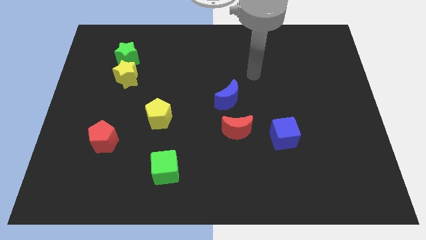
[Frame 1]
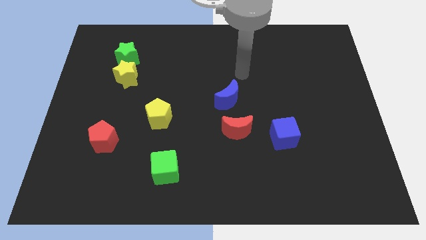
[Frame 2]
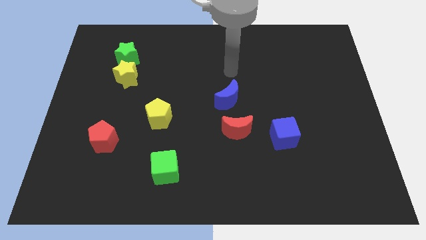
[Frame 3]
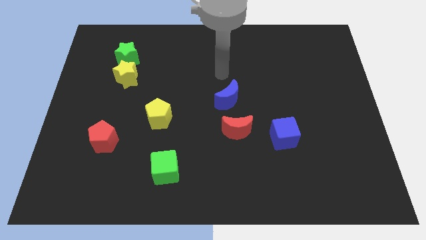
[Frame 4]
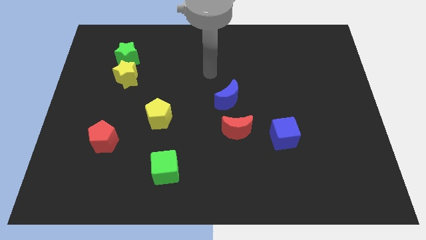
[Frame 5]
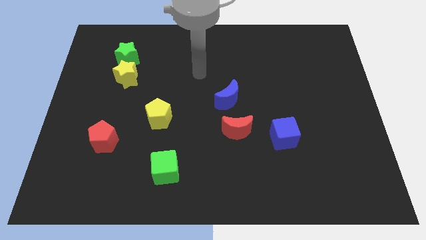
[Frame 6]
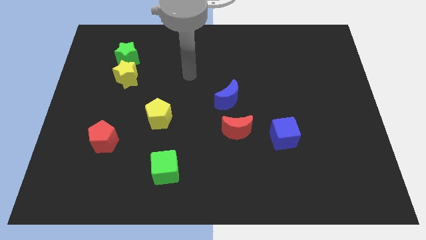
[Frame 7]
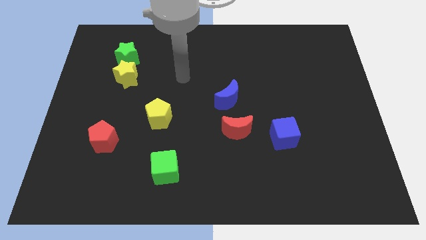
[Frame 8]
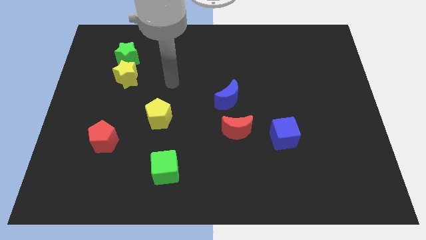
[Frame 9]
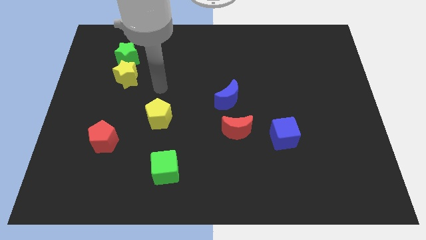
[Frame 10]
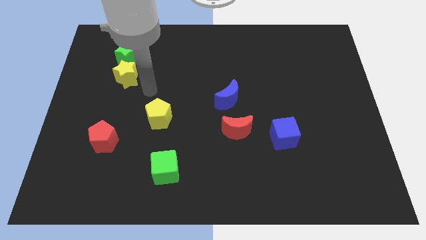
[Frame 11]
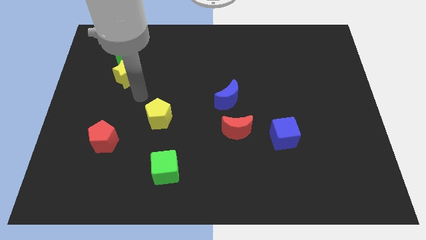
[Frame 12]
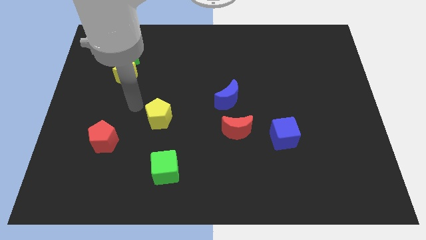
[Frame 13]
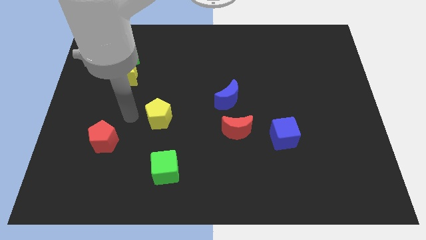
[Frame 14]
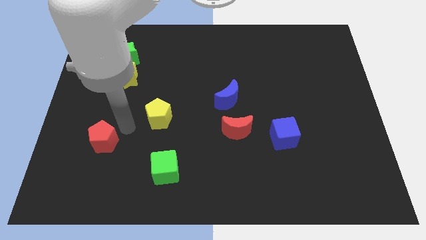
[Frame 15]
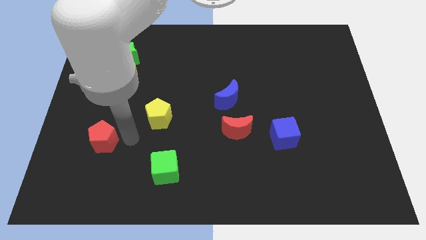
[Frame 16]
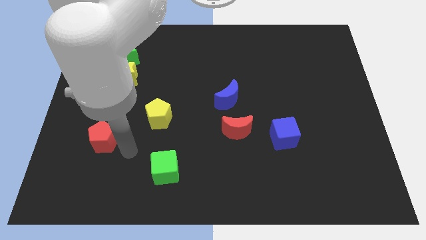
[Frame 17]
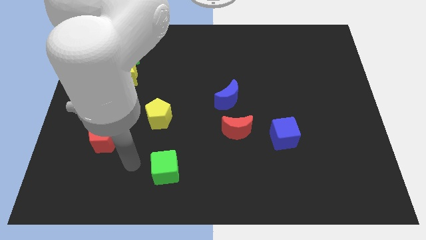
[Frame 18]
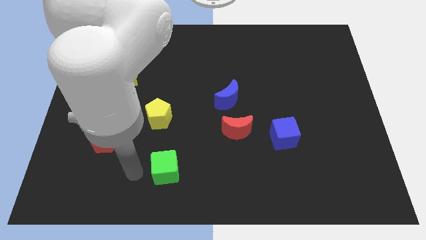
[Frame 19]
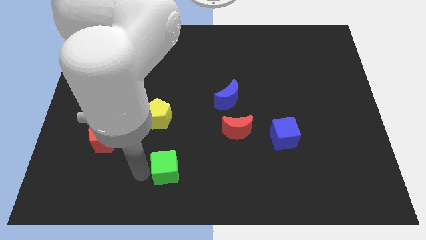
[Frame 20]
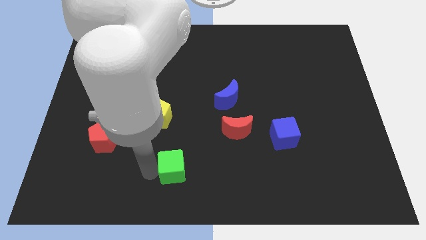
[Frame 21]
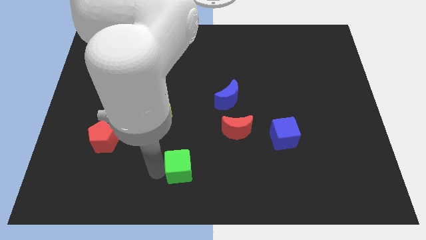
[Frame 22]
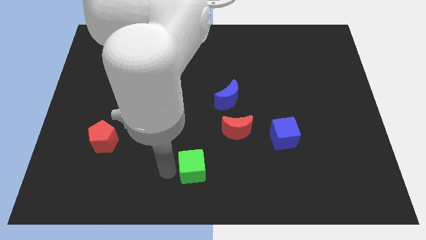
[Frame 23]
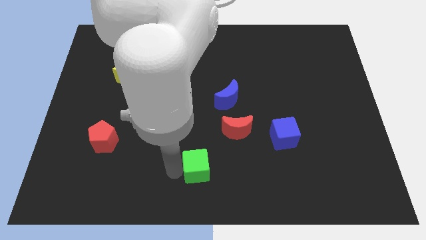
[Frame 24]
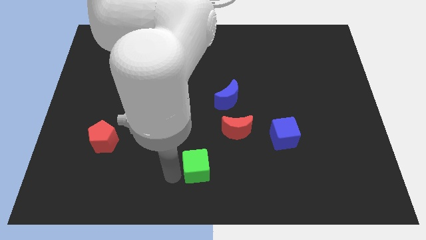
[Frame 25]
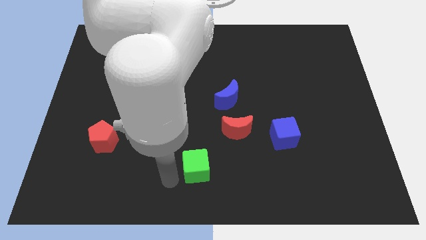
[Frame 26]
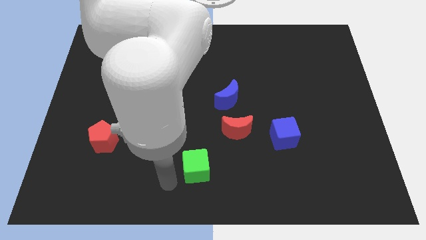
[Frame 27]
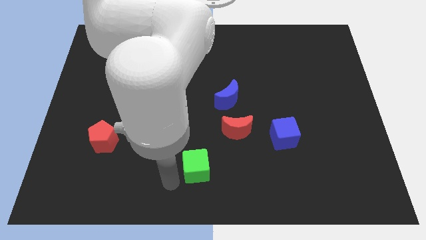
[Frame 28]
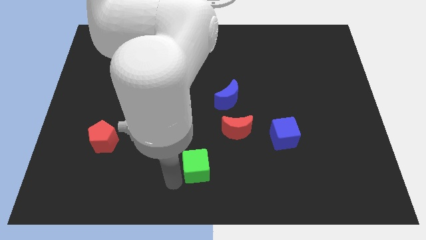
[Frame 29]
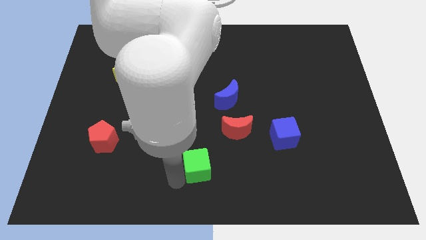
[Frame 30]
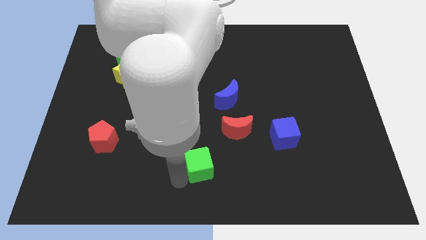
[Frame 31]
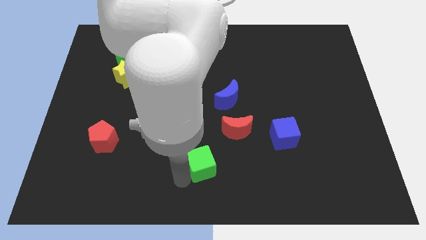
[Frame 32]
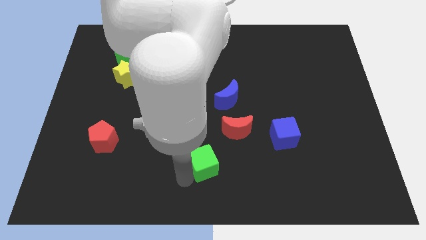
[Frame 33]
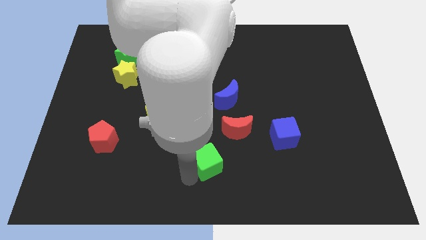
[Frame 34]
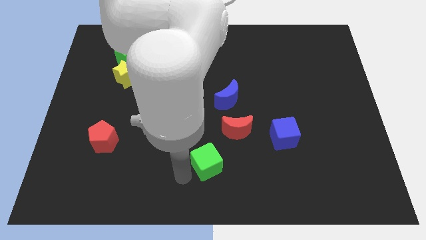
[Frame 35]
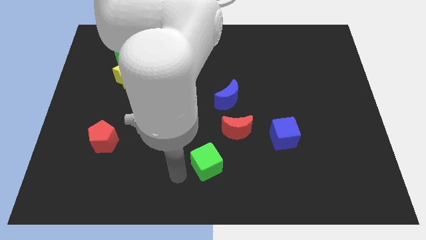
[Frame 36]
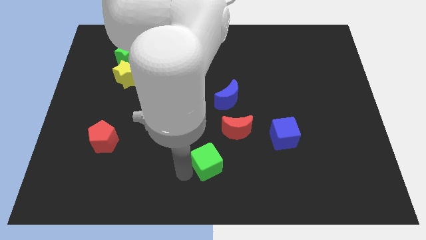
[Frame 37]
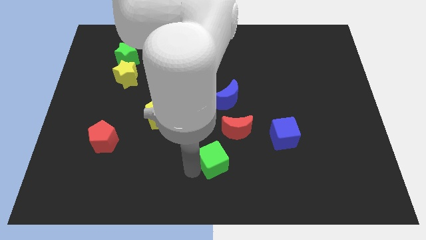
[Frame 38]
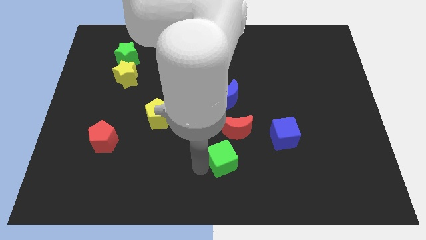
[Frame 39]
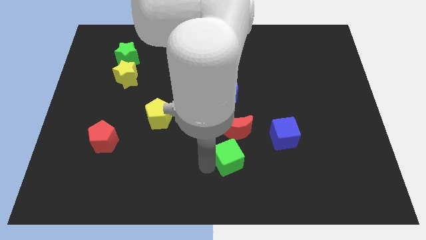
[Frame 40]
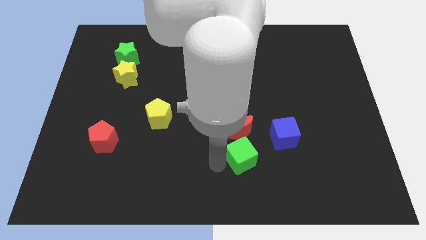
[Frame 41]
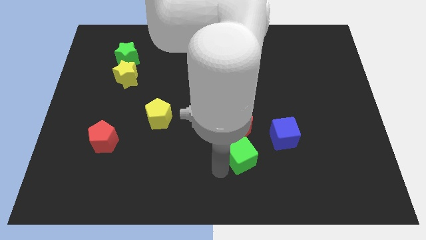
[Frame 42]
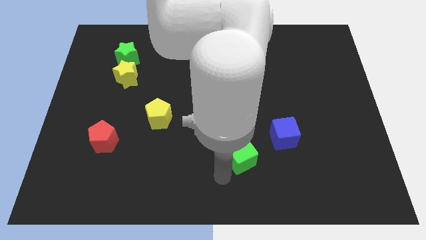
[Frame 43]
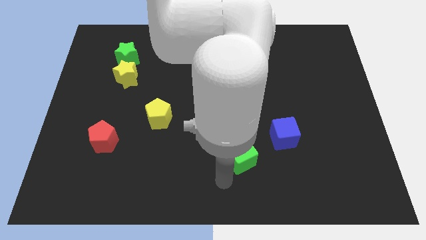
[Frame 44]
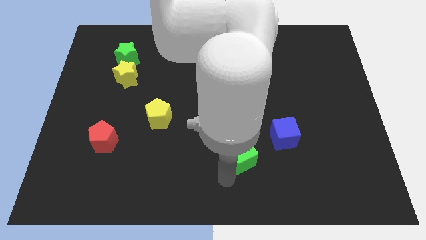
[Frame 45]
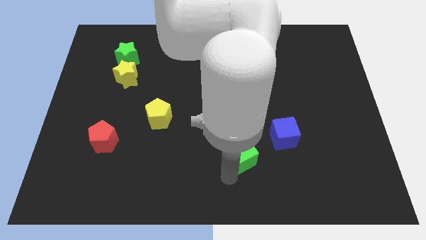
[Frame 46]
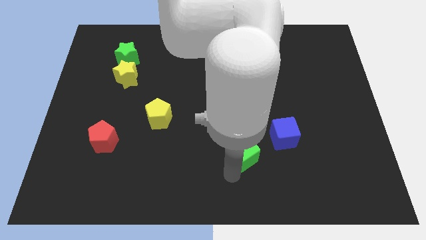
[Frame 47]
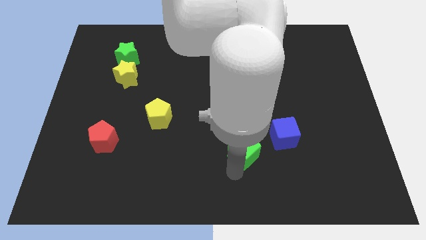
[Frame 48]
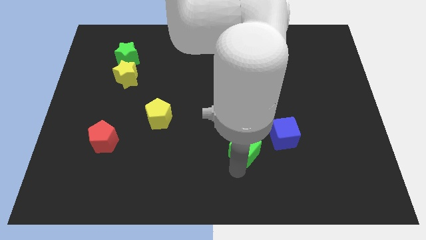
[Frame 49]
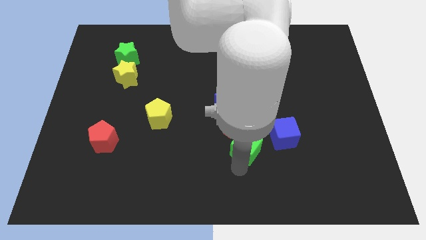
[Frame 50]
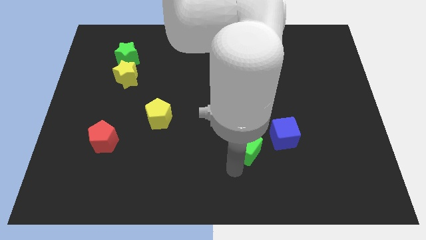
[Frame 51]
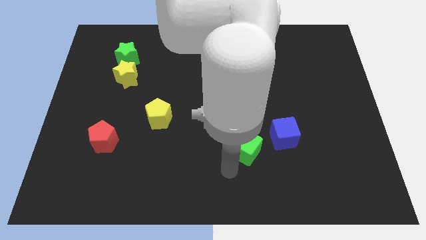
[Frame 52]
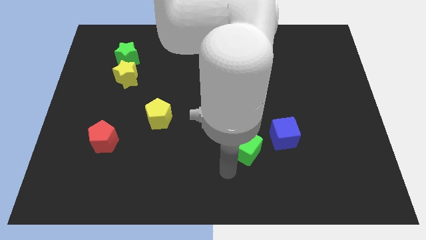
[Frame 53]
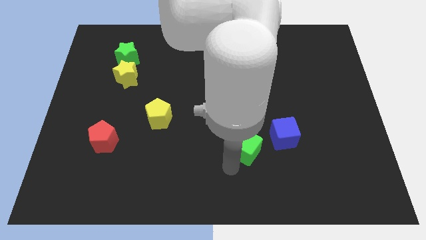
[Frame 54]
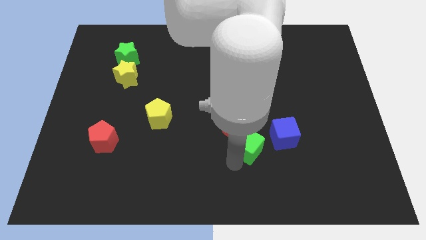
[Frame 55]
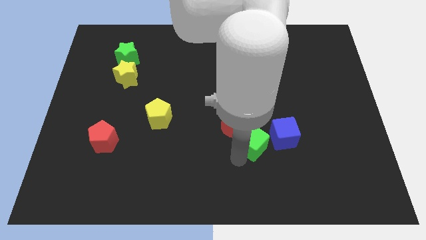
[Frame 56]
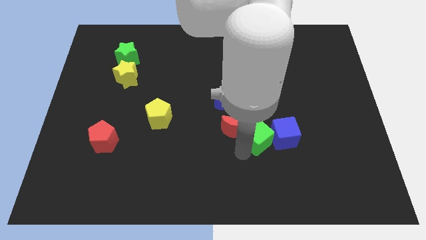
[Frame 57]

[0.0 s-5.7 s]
move the green cube close to the blue cube
